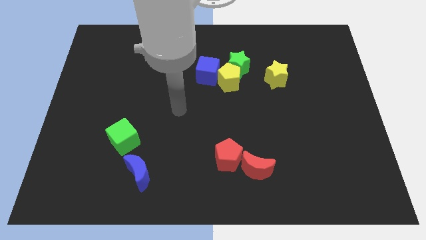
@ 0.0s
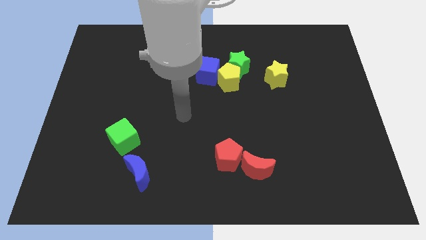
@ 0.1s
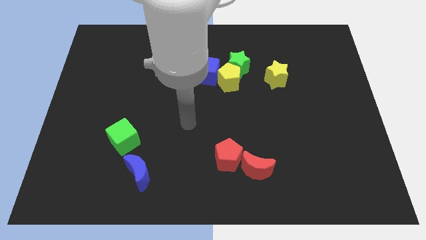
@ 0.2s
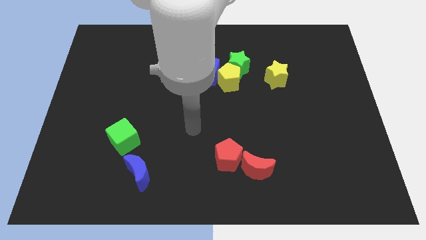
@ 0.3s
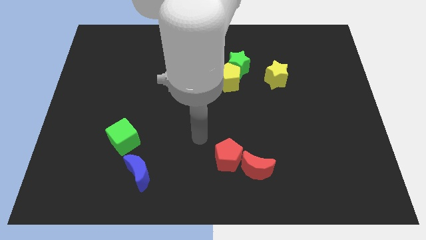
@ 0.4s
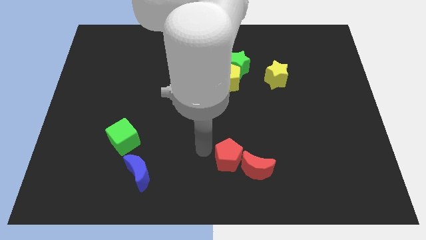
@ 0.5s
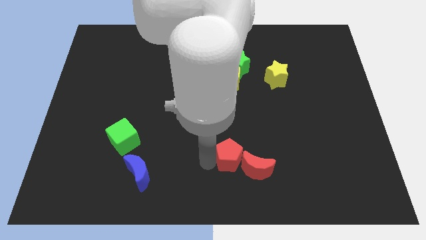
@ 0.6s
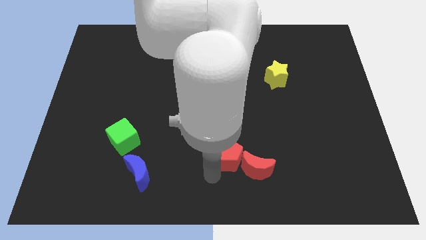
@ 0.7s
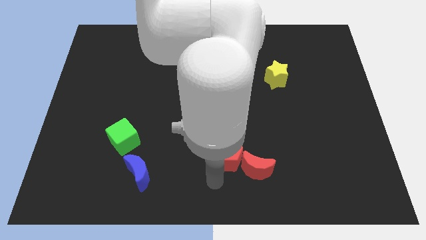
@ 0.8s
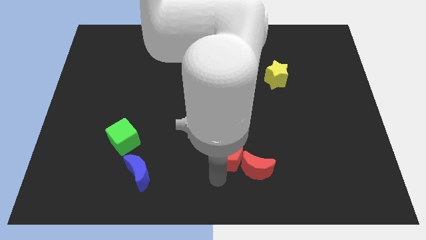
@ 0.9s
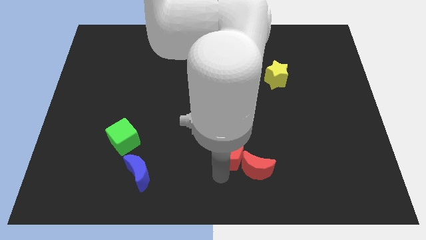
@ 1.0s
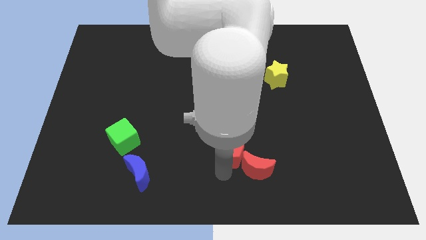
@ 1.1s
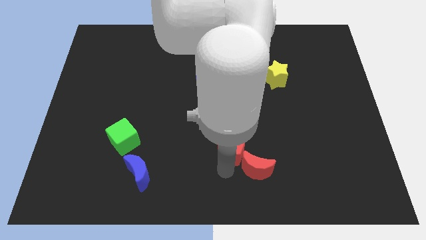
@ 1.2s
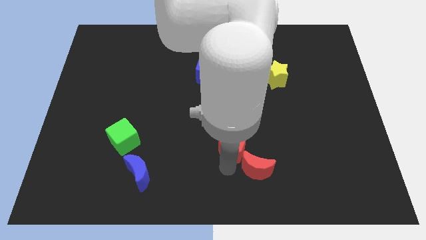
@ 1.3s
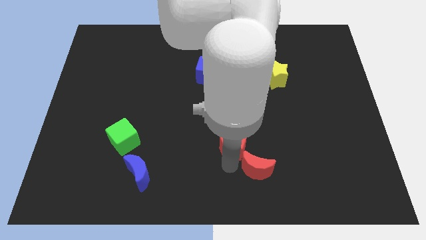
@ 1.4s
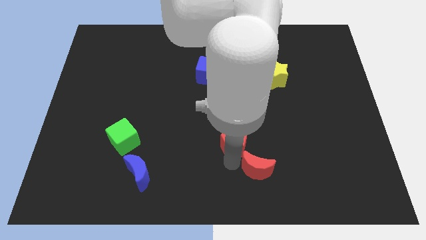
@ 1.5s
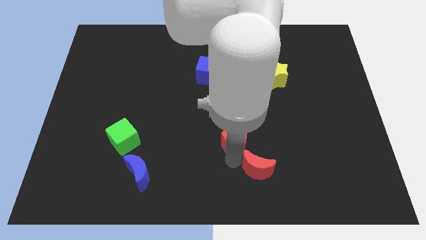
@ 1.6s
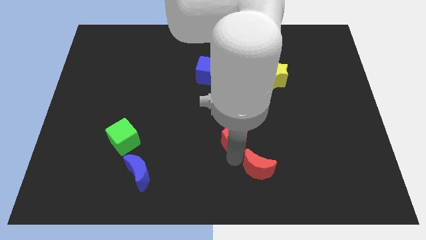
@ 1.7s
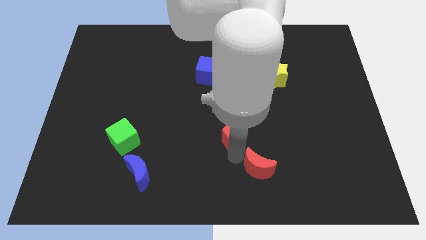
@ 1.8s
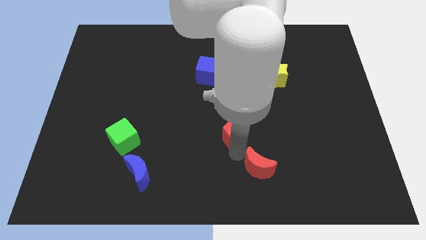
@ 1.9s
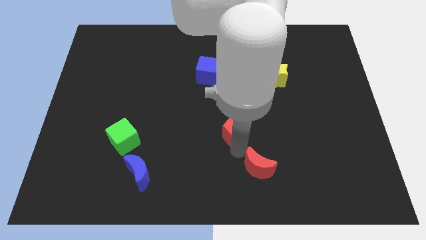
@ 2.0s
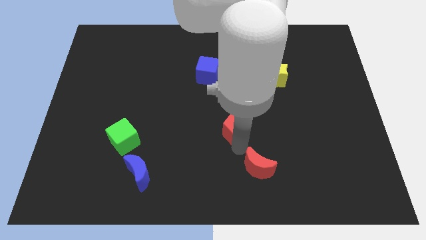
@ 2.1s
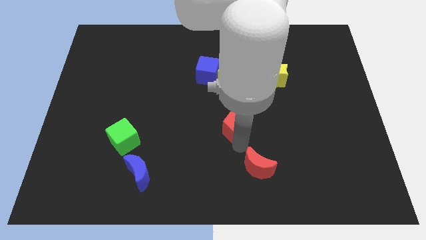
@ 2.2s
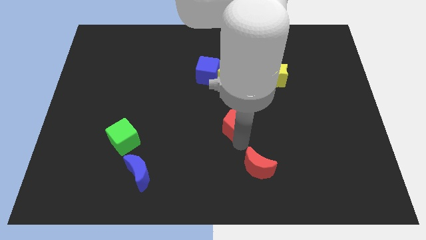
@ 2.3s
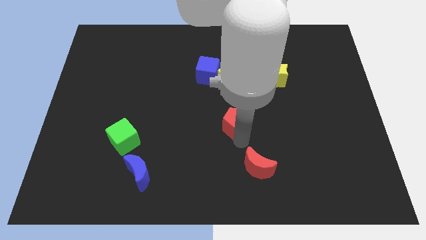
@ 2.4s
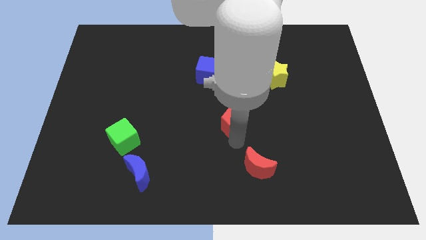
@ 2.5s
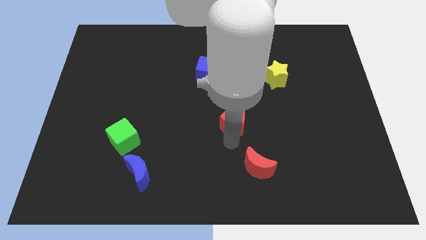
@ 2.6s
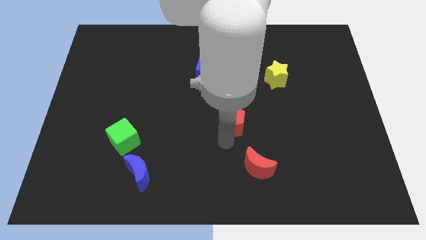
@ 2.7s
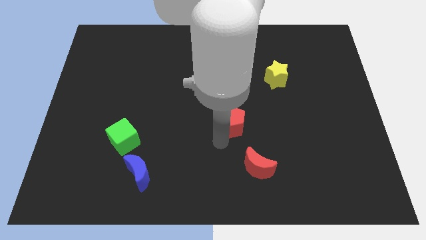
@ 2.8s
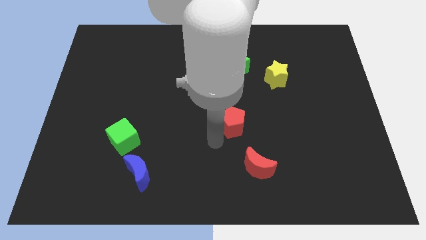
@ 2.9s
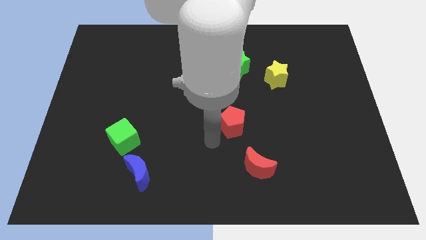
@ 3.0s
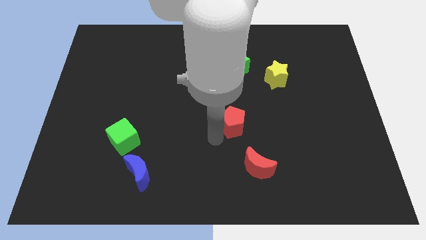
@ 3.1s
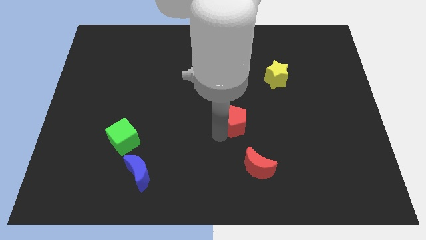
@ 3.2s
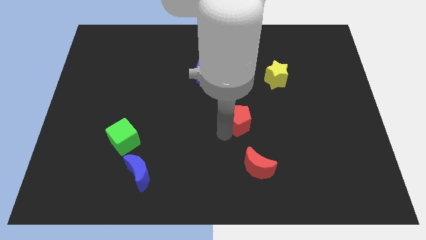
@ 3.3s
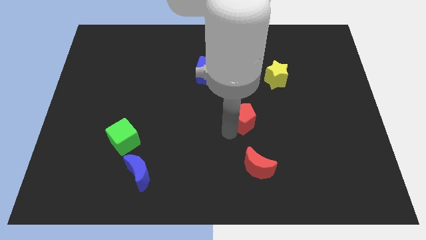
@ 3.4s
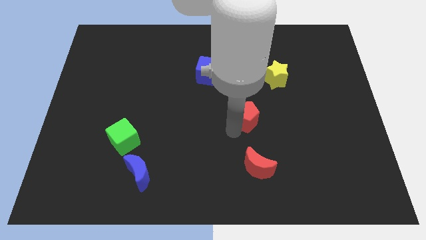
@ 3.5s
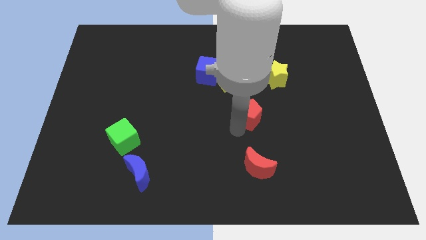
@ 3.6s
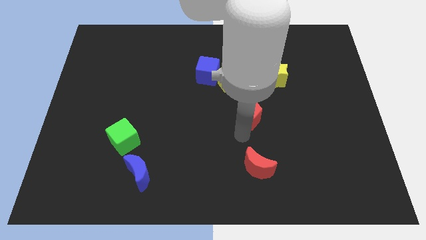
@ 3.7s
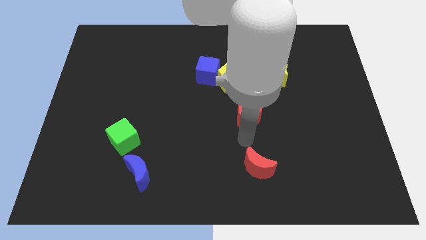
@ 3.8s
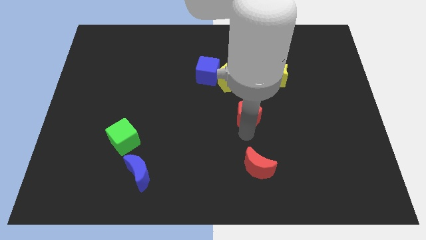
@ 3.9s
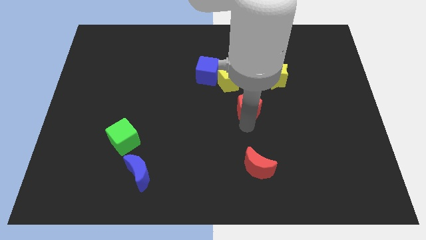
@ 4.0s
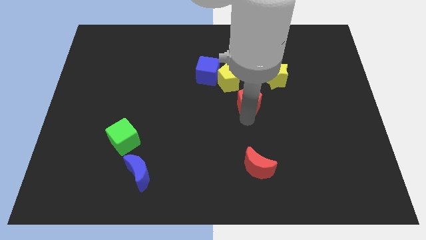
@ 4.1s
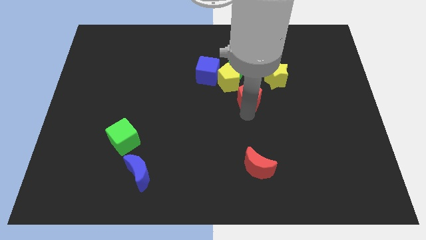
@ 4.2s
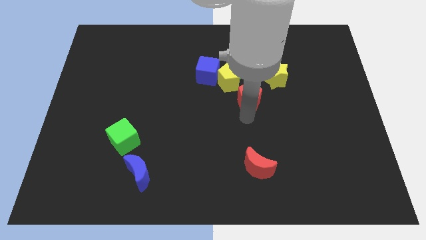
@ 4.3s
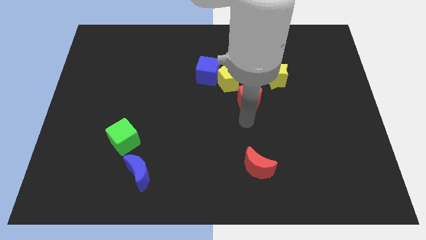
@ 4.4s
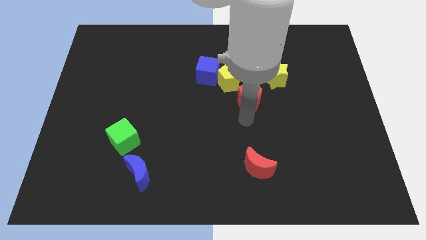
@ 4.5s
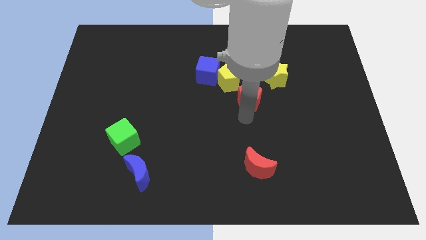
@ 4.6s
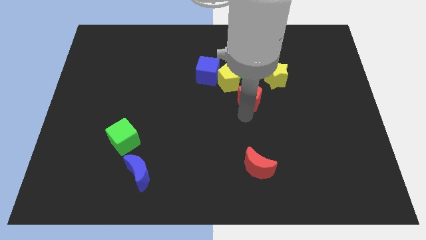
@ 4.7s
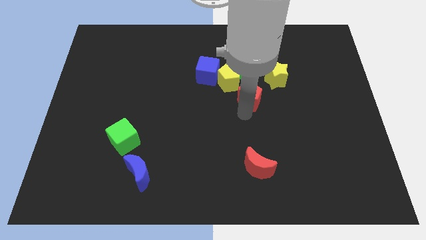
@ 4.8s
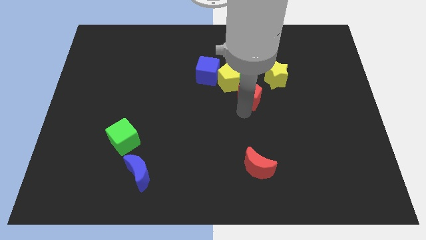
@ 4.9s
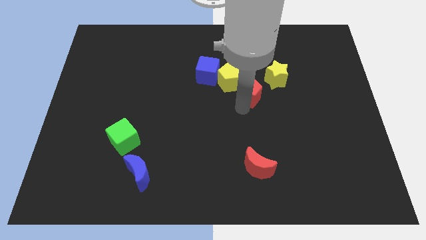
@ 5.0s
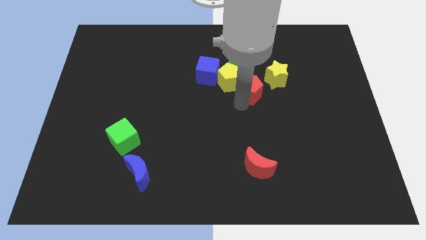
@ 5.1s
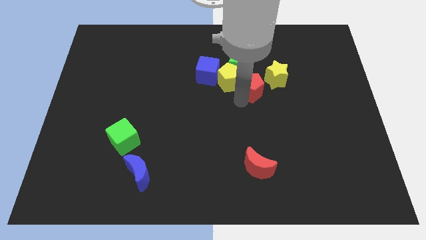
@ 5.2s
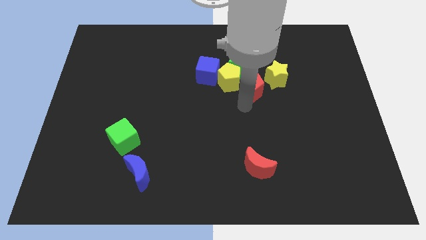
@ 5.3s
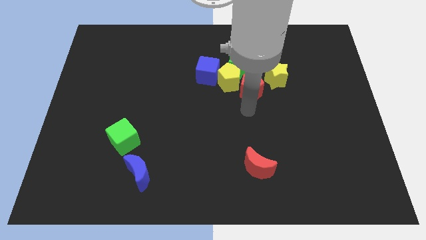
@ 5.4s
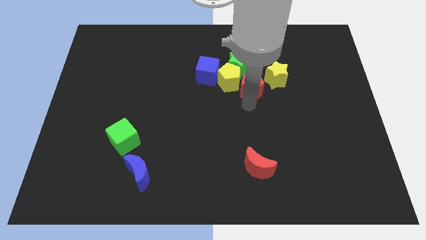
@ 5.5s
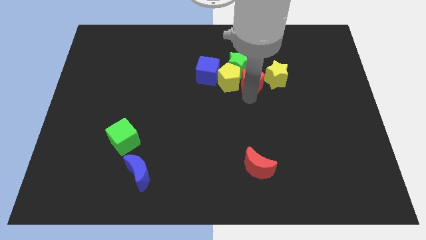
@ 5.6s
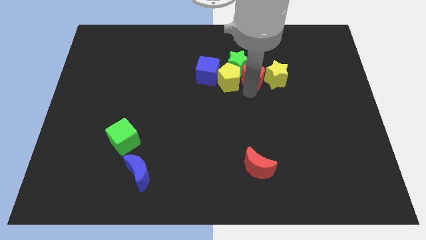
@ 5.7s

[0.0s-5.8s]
move the red pentagon diagonally up and to the left of the yellow star
